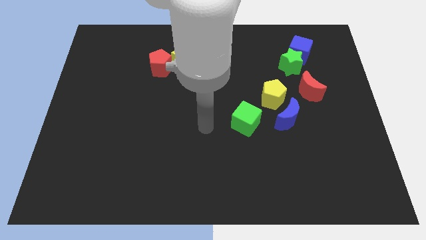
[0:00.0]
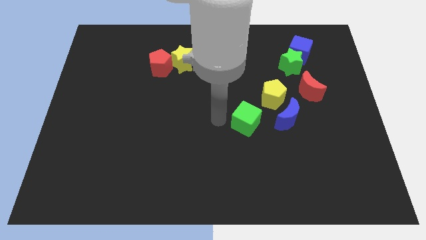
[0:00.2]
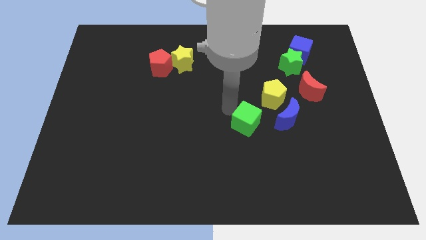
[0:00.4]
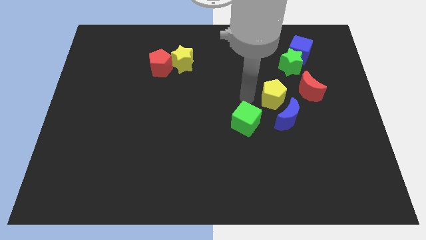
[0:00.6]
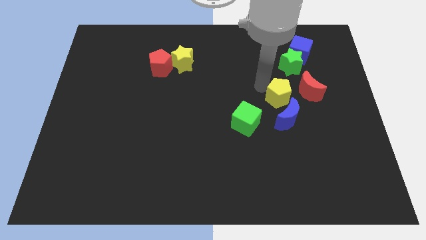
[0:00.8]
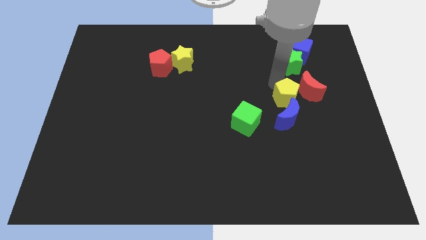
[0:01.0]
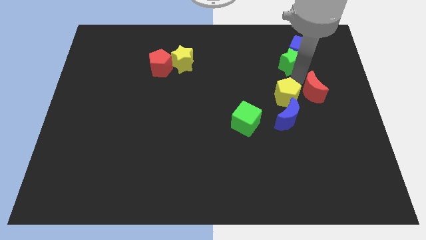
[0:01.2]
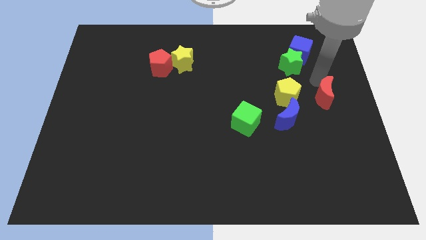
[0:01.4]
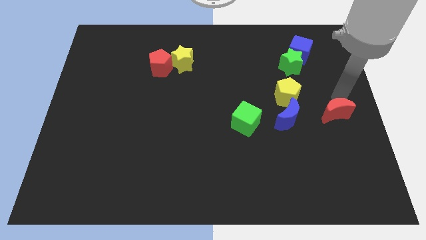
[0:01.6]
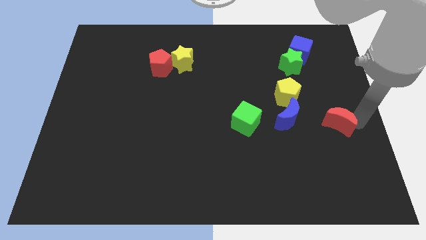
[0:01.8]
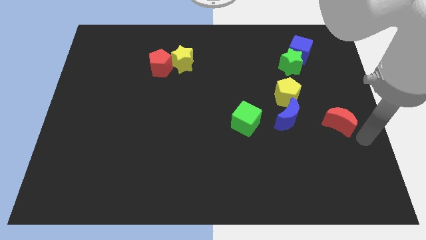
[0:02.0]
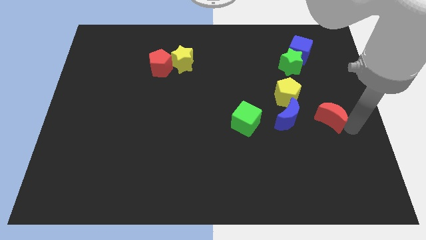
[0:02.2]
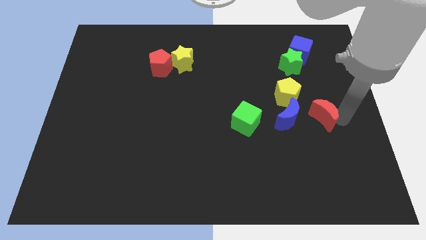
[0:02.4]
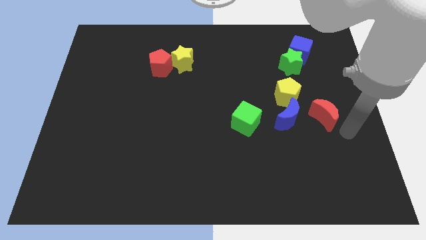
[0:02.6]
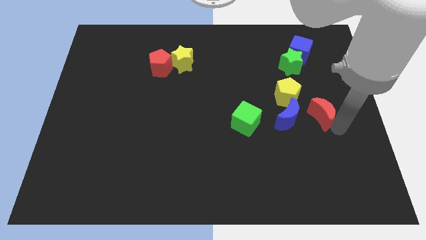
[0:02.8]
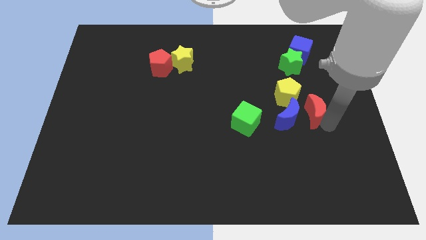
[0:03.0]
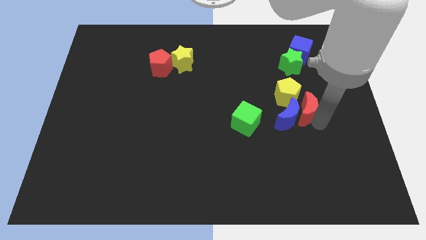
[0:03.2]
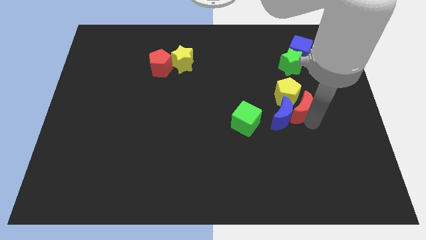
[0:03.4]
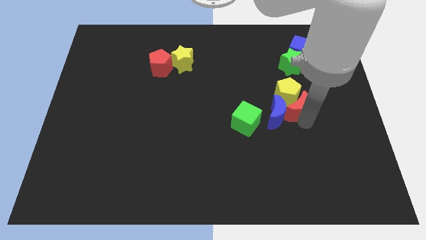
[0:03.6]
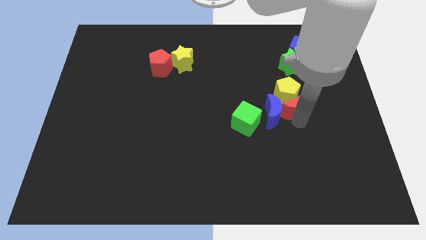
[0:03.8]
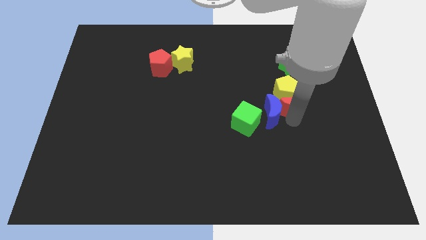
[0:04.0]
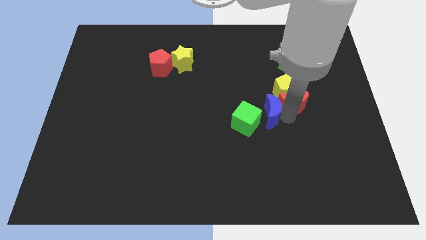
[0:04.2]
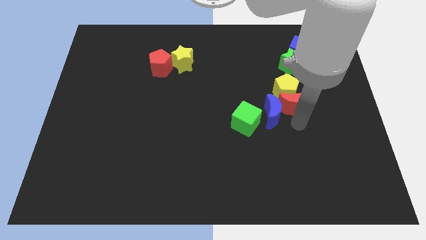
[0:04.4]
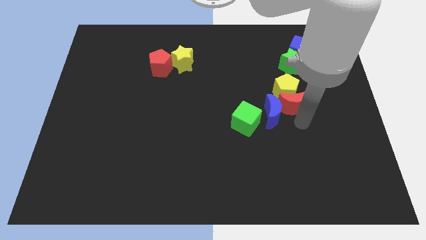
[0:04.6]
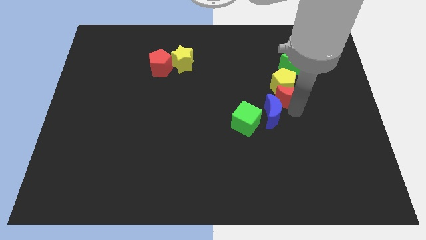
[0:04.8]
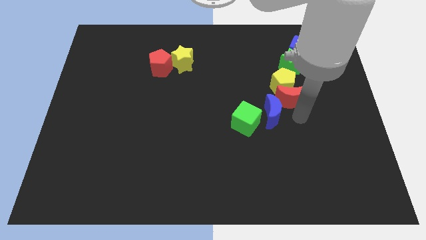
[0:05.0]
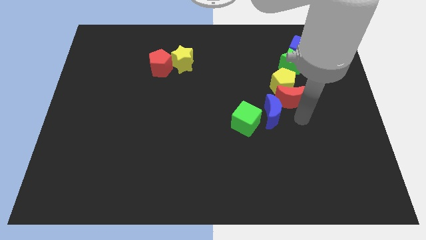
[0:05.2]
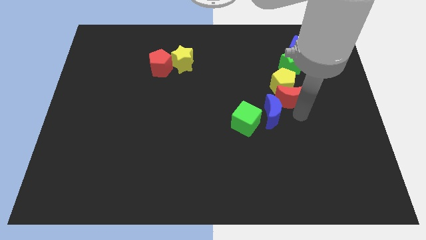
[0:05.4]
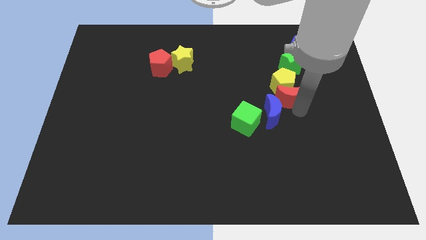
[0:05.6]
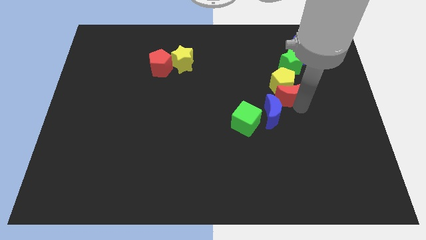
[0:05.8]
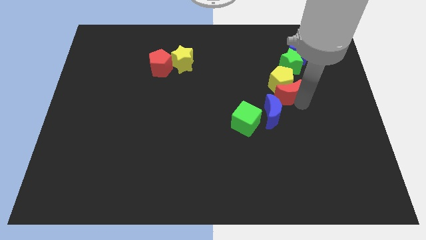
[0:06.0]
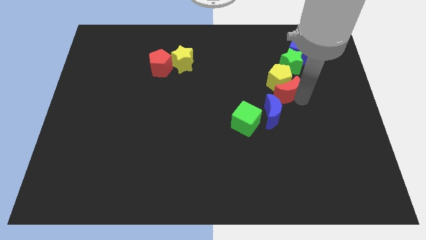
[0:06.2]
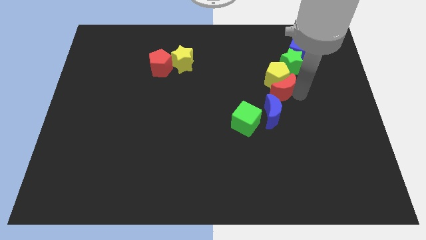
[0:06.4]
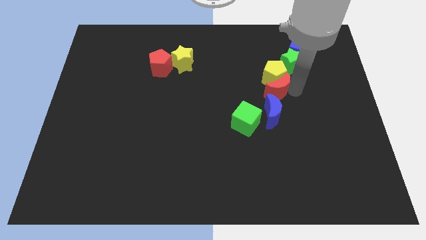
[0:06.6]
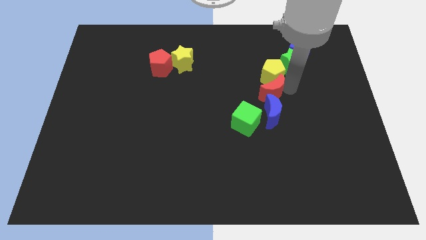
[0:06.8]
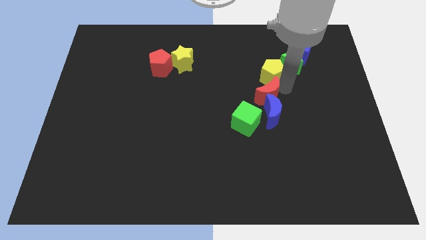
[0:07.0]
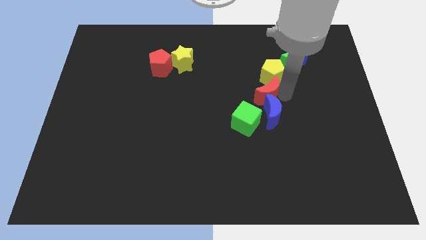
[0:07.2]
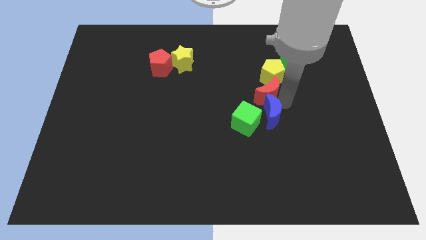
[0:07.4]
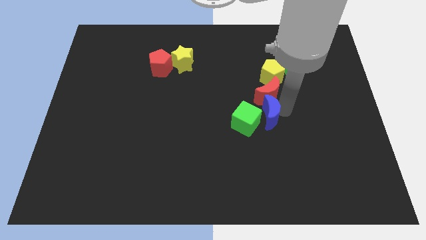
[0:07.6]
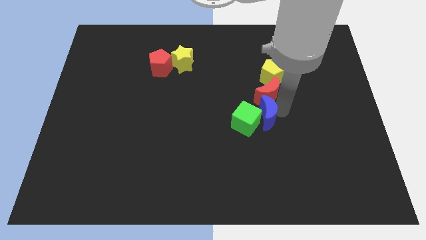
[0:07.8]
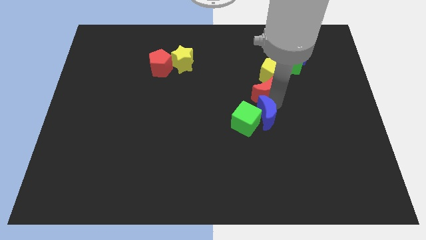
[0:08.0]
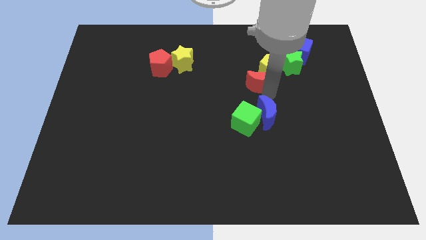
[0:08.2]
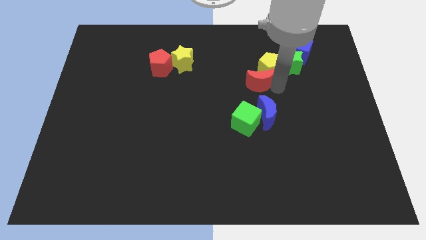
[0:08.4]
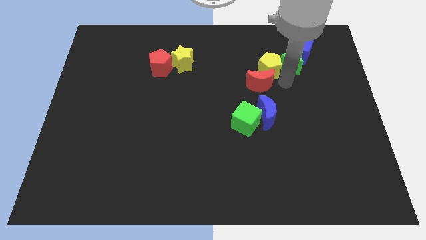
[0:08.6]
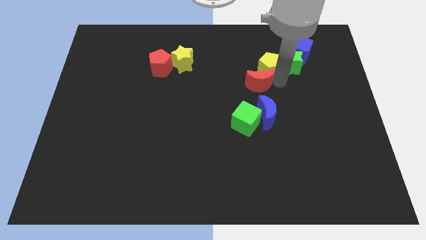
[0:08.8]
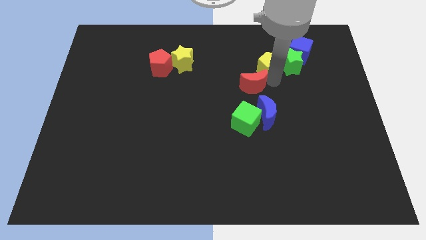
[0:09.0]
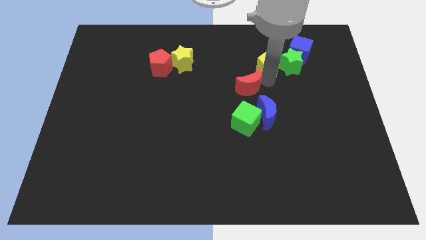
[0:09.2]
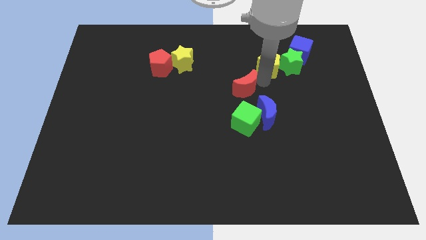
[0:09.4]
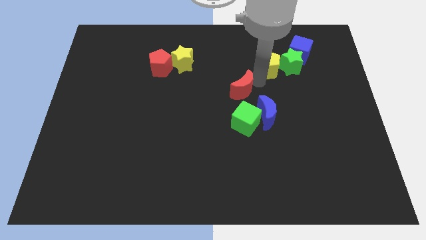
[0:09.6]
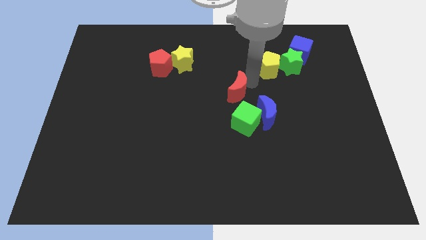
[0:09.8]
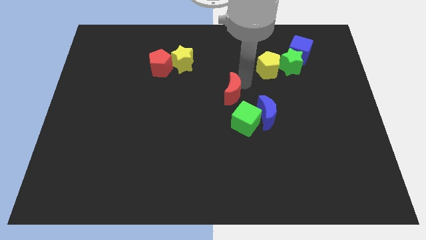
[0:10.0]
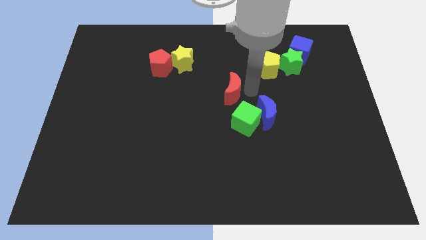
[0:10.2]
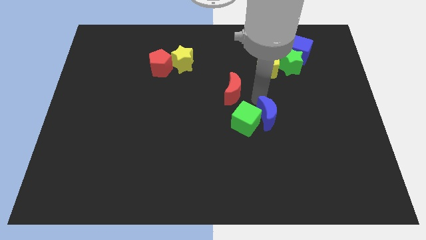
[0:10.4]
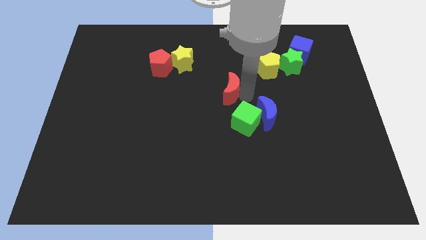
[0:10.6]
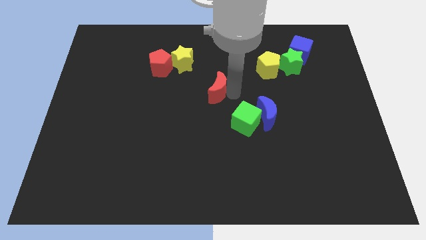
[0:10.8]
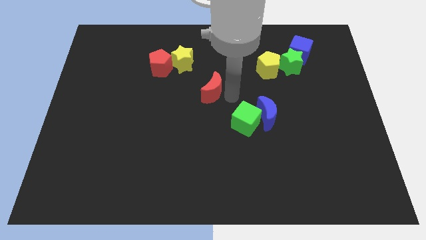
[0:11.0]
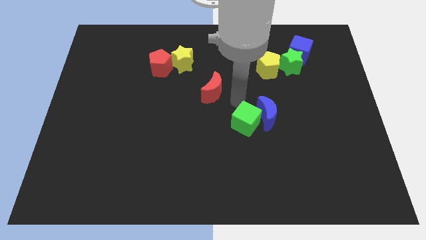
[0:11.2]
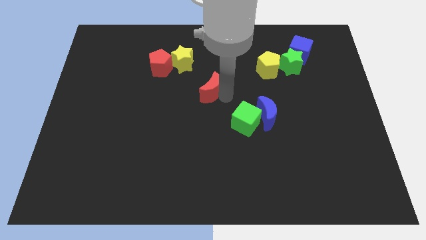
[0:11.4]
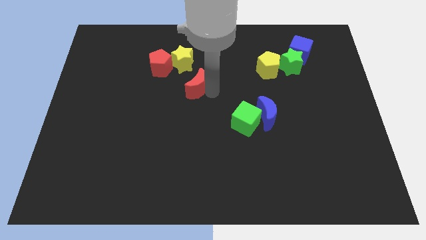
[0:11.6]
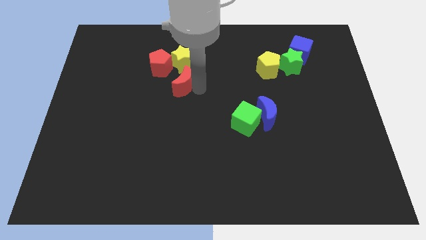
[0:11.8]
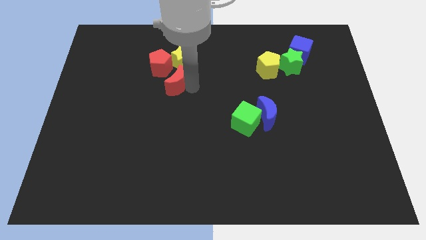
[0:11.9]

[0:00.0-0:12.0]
move the red moon diagonally down and to the left of the yellow star

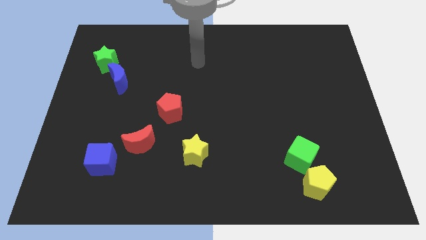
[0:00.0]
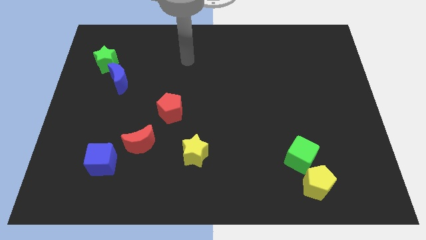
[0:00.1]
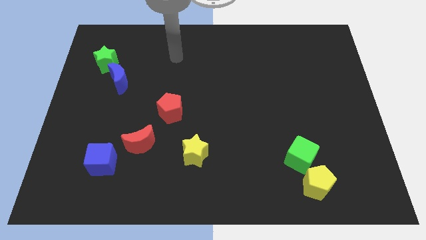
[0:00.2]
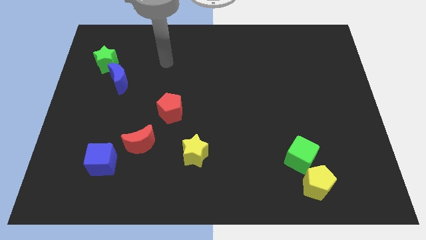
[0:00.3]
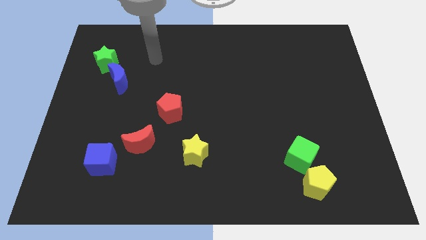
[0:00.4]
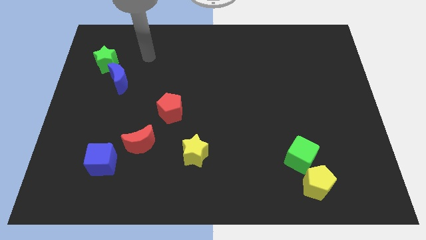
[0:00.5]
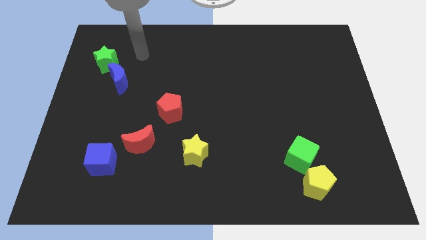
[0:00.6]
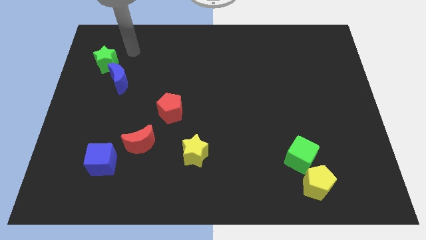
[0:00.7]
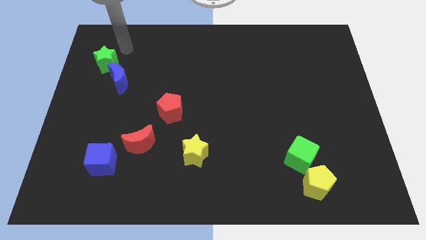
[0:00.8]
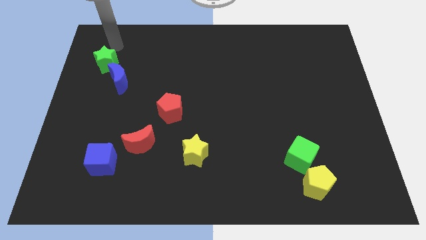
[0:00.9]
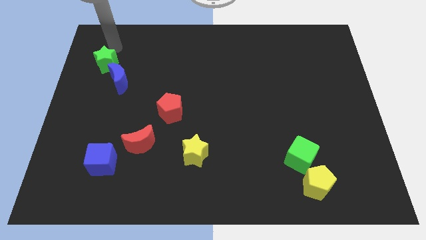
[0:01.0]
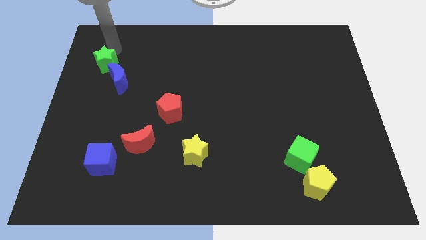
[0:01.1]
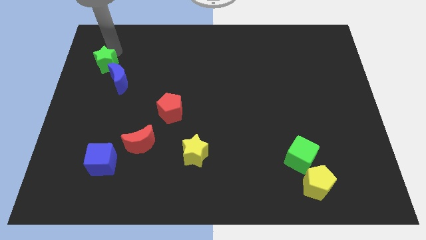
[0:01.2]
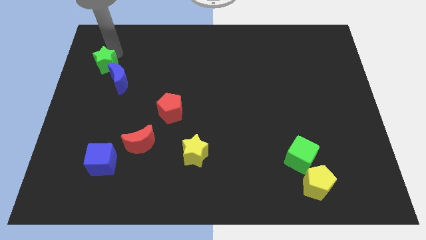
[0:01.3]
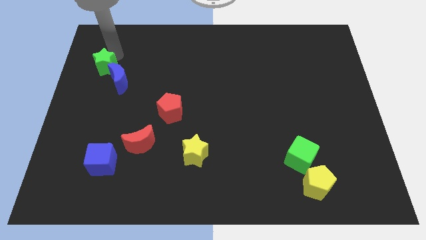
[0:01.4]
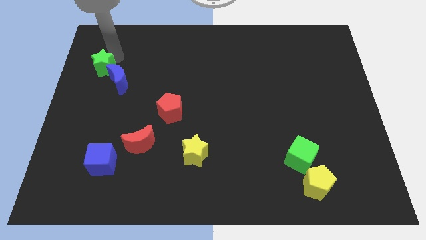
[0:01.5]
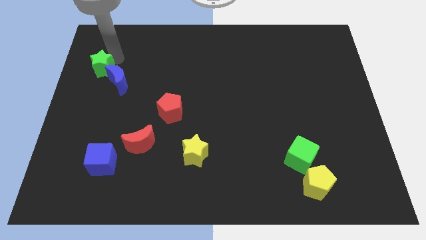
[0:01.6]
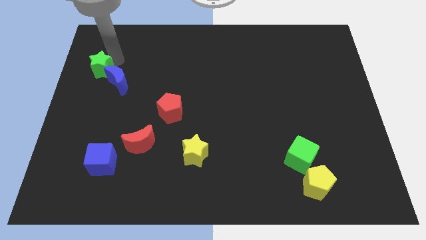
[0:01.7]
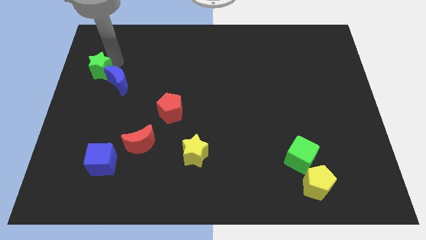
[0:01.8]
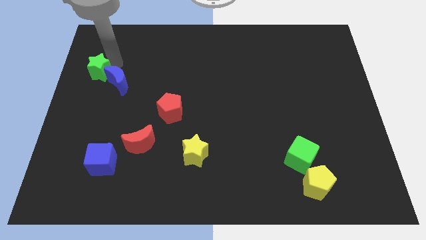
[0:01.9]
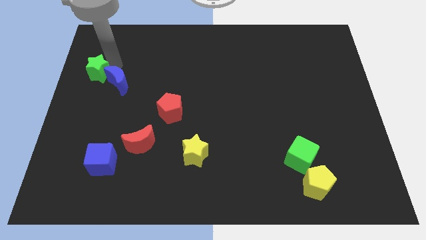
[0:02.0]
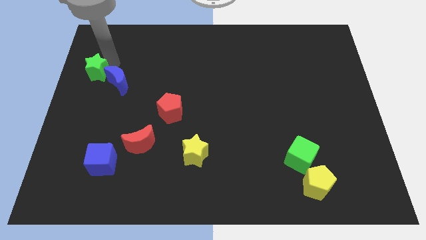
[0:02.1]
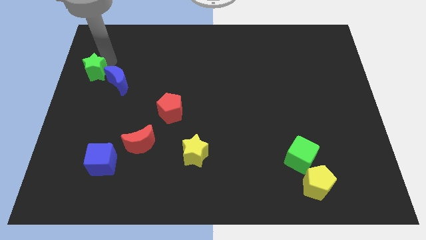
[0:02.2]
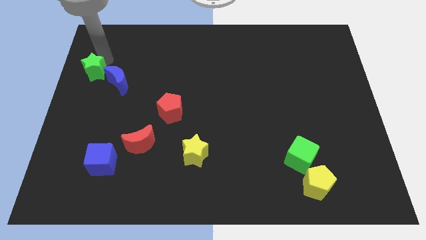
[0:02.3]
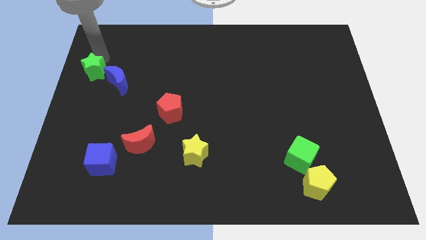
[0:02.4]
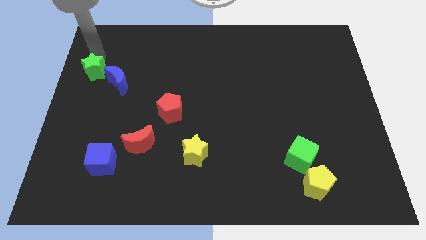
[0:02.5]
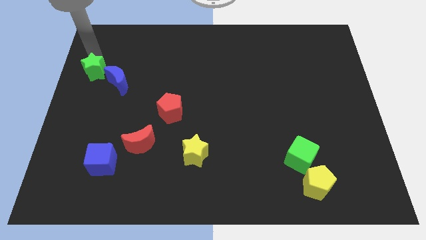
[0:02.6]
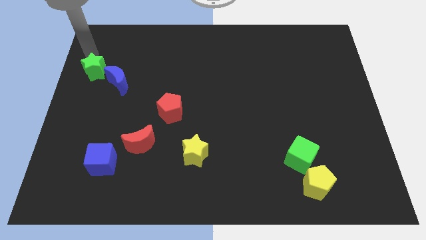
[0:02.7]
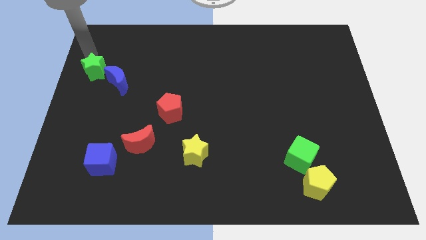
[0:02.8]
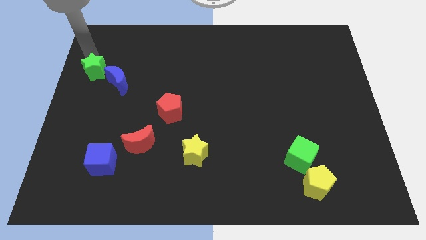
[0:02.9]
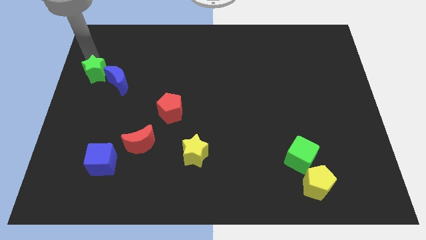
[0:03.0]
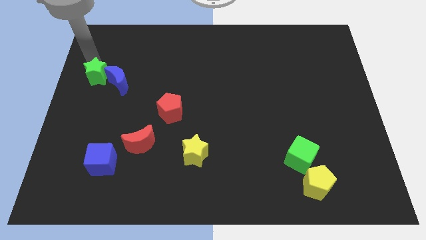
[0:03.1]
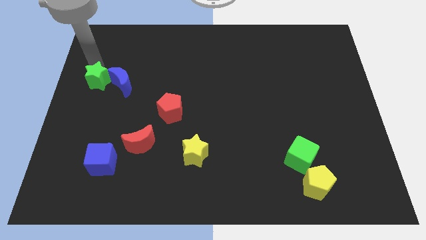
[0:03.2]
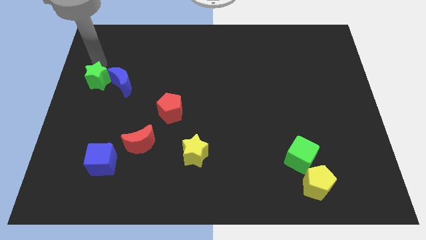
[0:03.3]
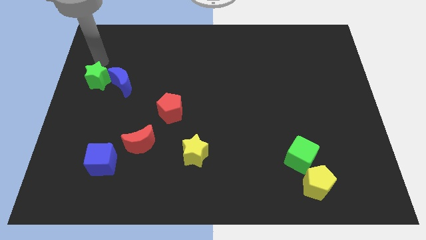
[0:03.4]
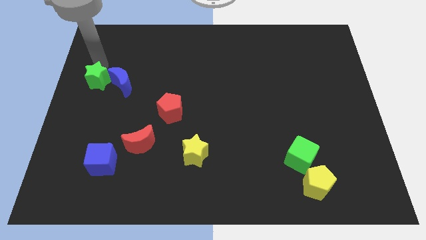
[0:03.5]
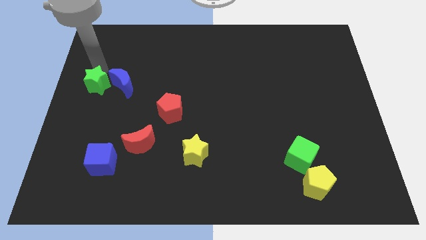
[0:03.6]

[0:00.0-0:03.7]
put the green star to the bottom left side of the blue moon
